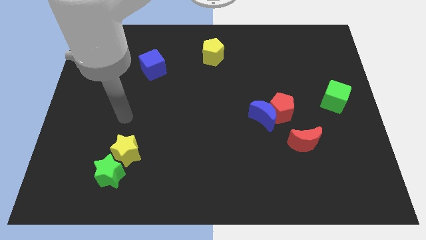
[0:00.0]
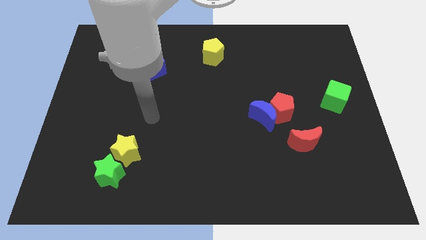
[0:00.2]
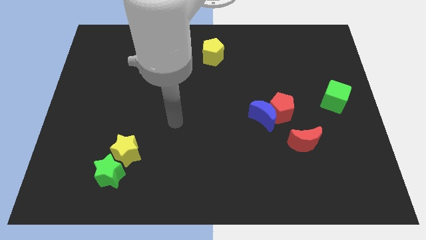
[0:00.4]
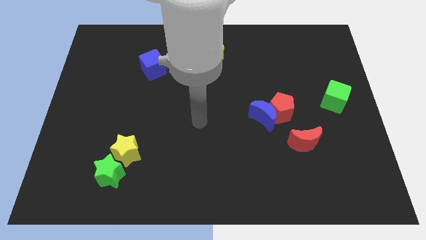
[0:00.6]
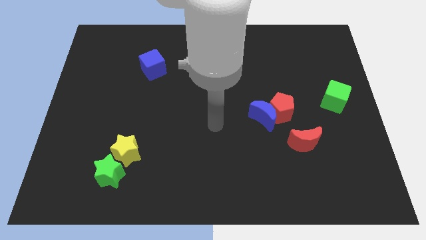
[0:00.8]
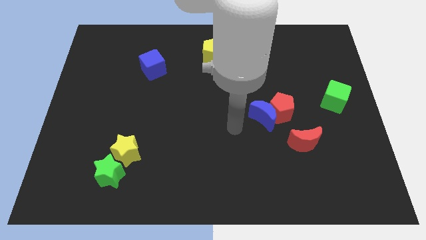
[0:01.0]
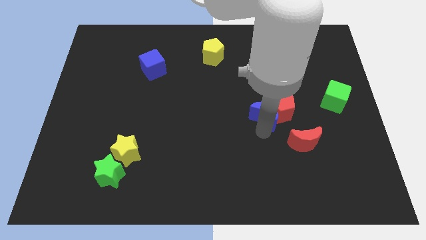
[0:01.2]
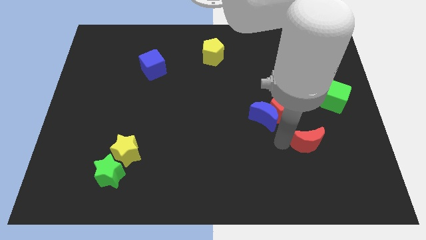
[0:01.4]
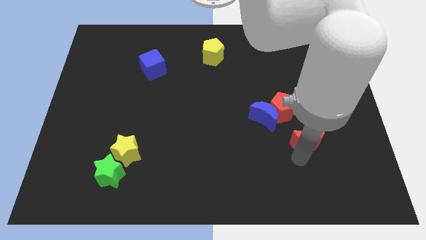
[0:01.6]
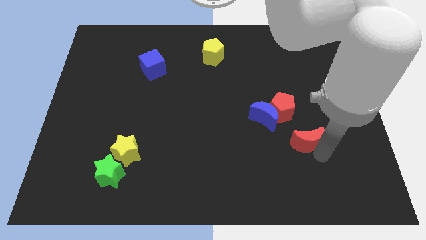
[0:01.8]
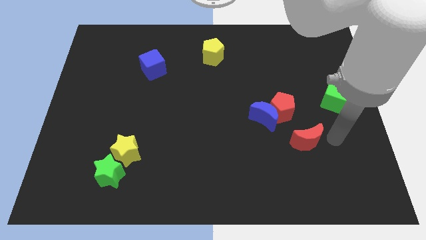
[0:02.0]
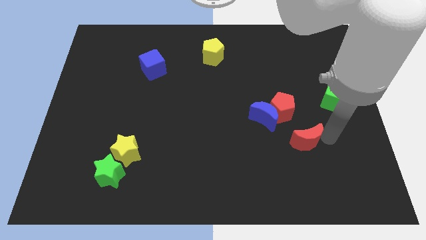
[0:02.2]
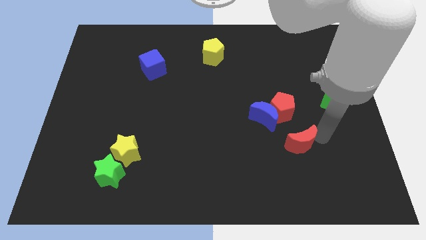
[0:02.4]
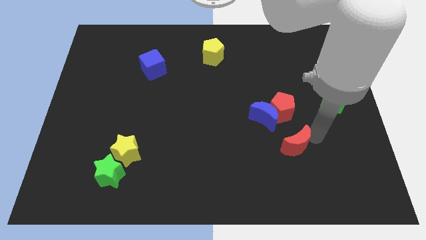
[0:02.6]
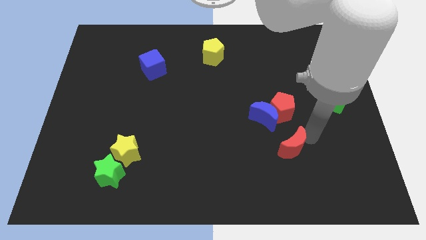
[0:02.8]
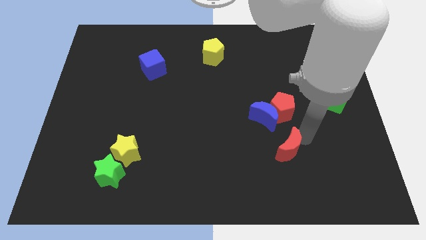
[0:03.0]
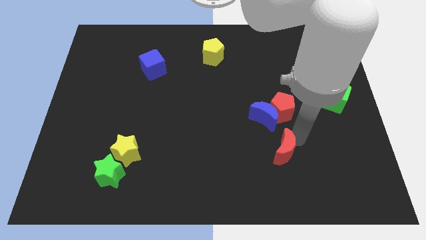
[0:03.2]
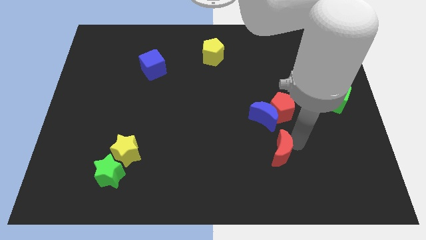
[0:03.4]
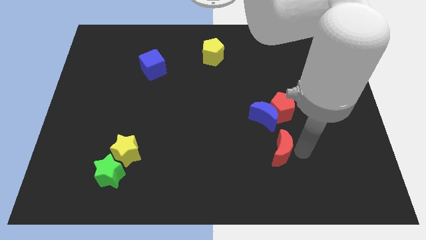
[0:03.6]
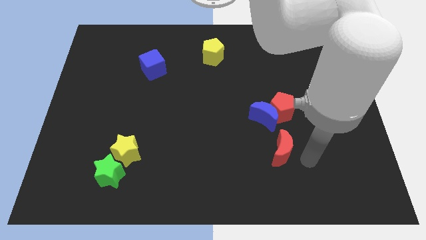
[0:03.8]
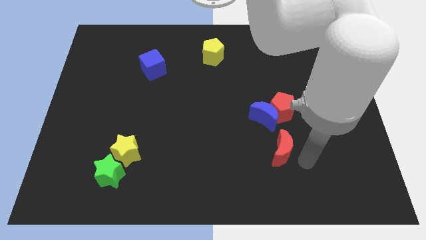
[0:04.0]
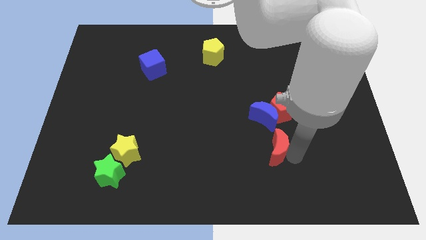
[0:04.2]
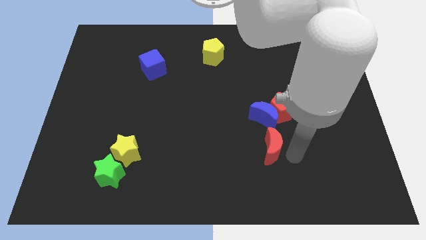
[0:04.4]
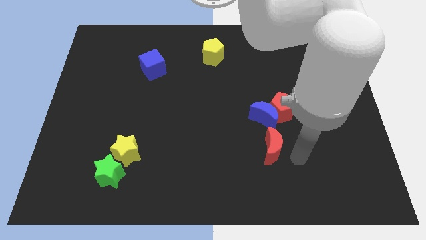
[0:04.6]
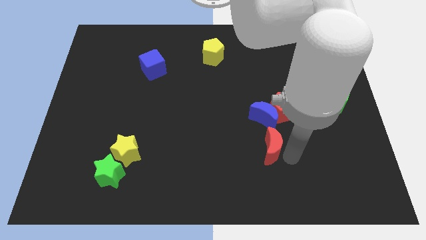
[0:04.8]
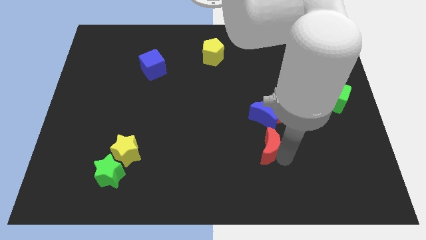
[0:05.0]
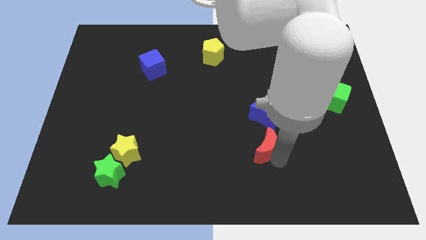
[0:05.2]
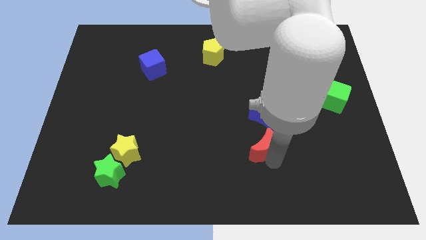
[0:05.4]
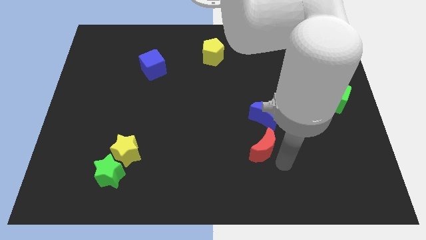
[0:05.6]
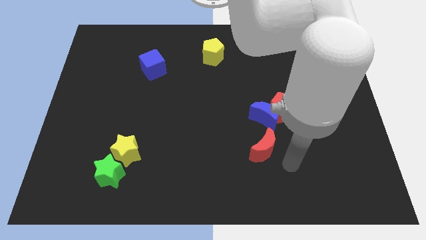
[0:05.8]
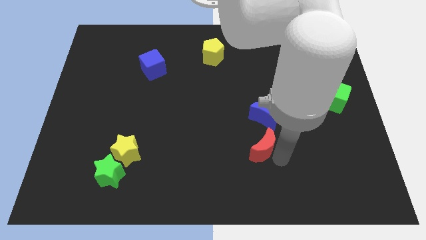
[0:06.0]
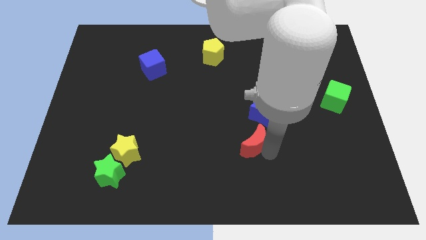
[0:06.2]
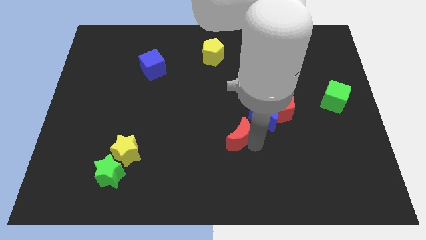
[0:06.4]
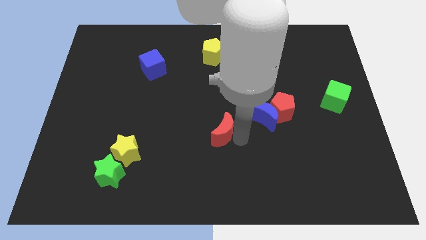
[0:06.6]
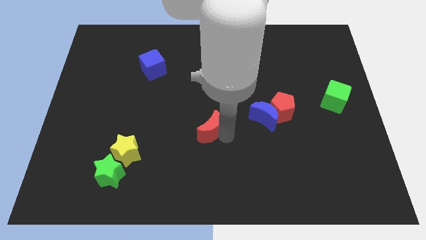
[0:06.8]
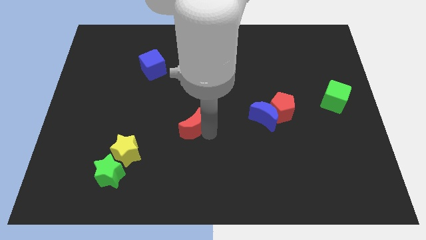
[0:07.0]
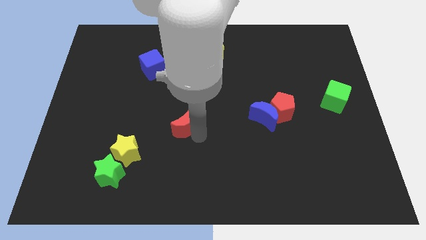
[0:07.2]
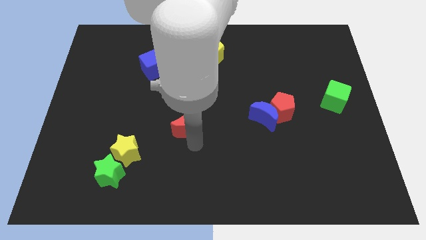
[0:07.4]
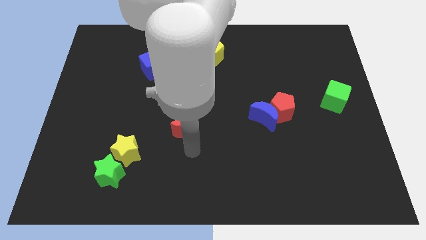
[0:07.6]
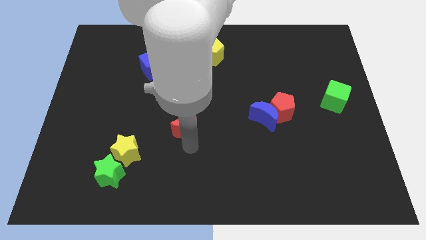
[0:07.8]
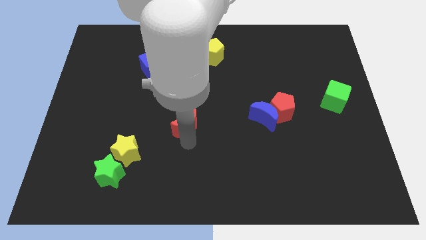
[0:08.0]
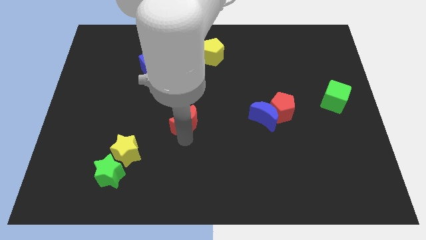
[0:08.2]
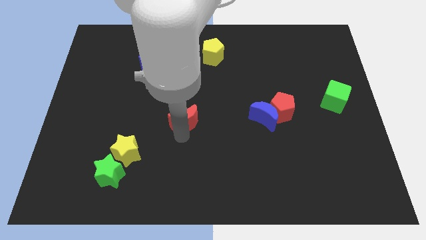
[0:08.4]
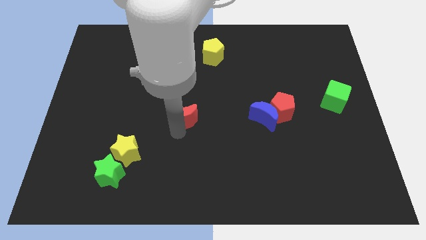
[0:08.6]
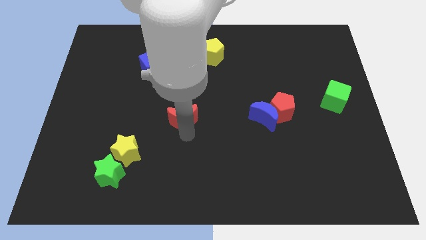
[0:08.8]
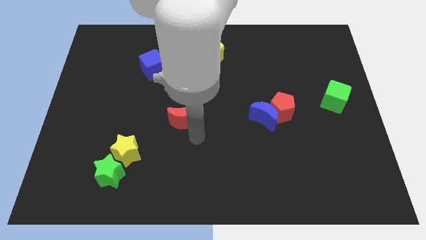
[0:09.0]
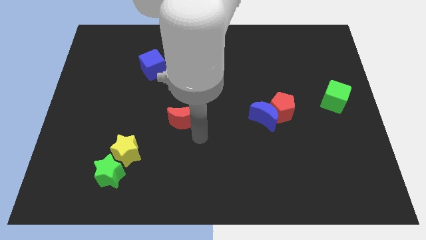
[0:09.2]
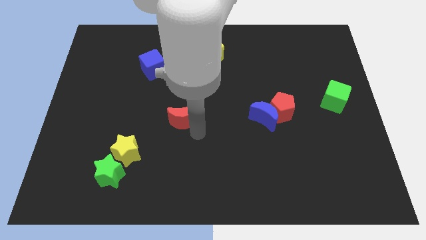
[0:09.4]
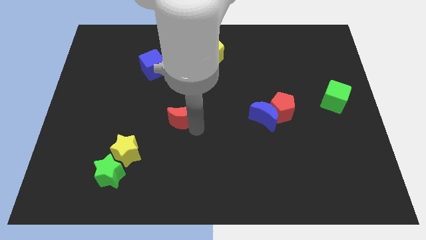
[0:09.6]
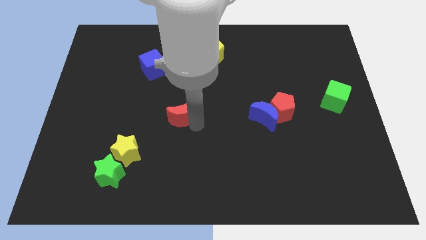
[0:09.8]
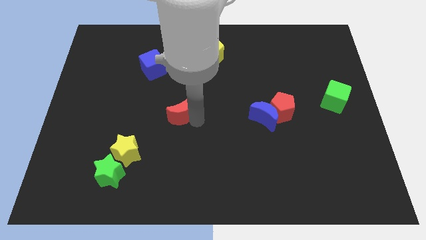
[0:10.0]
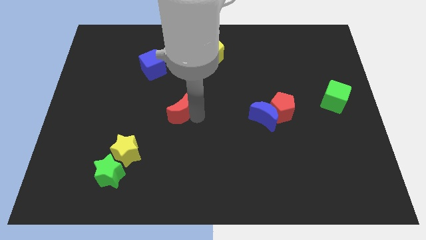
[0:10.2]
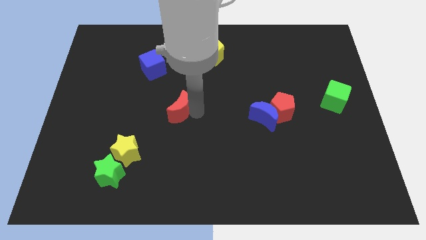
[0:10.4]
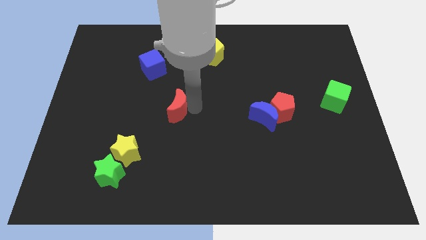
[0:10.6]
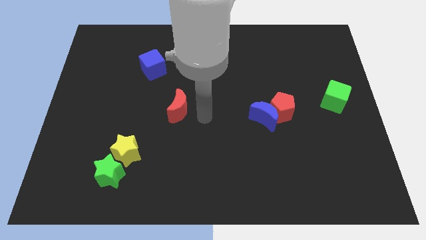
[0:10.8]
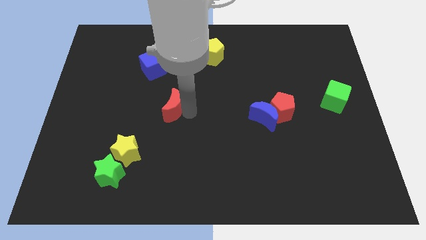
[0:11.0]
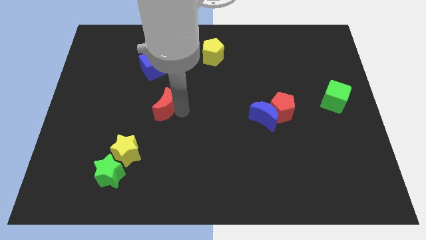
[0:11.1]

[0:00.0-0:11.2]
slide the red moon to the bottom side of the blue cube

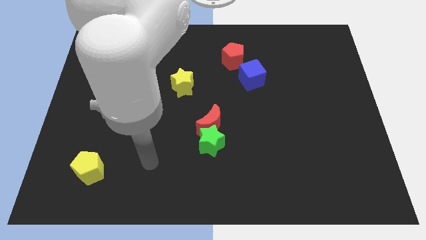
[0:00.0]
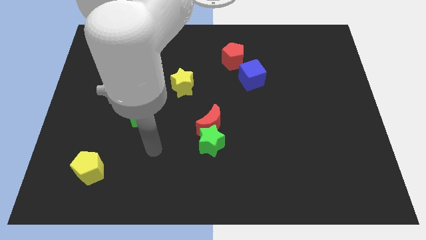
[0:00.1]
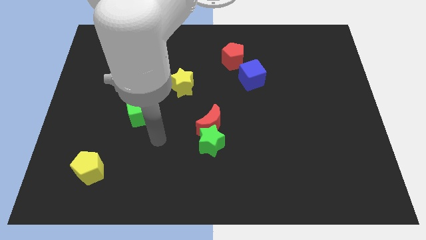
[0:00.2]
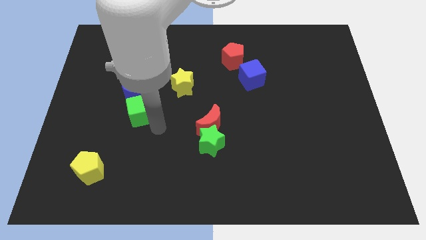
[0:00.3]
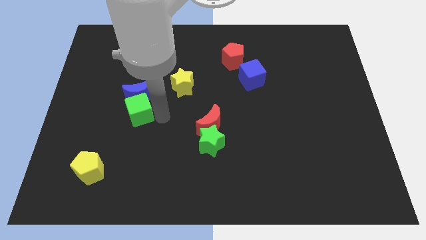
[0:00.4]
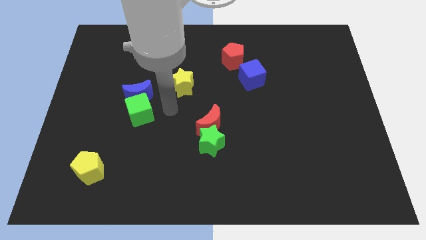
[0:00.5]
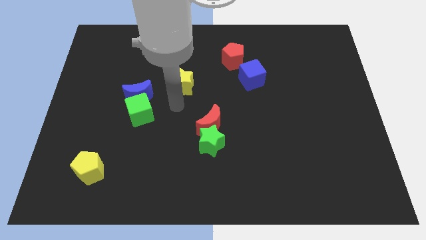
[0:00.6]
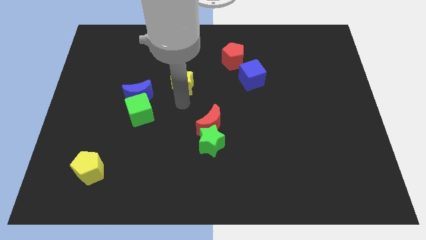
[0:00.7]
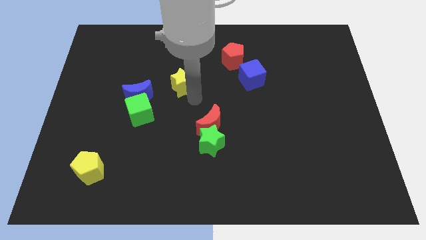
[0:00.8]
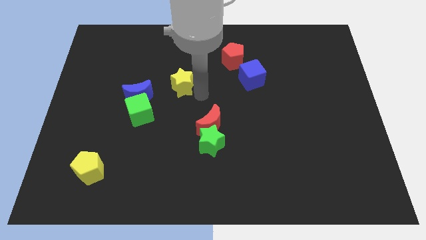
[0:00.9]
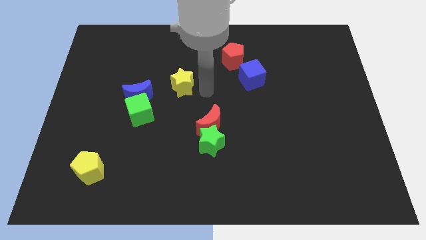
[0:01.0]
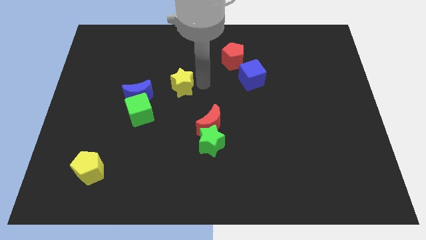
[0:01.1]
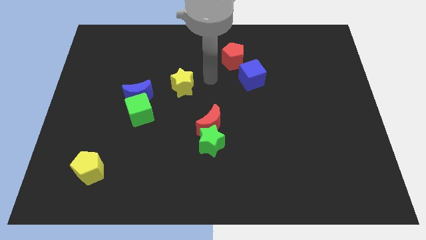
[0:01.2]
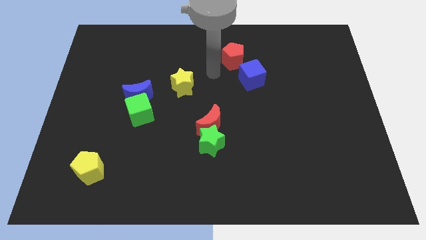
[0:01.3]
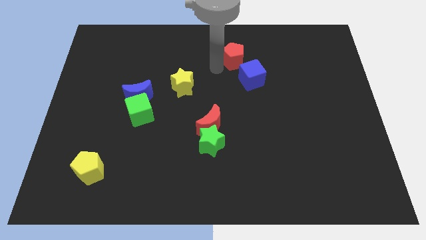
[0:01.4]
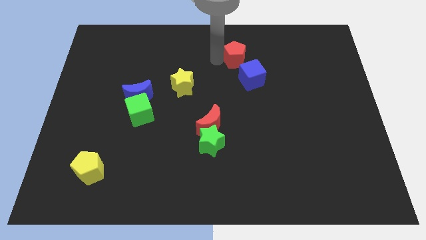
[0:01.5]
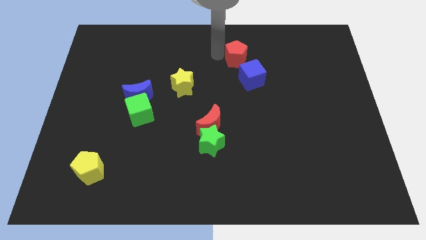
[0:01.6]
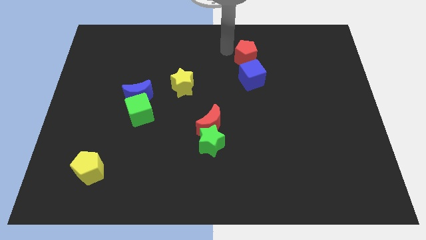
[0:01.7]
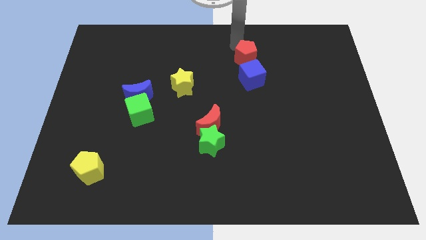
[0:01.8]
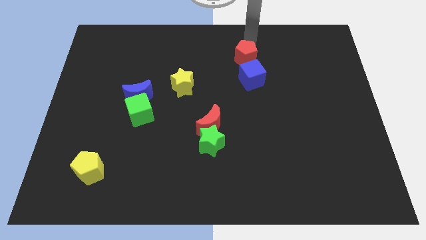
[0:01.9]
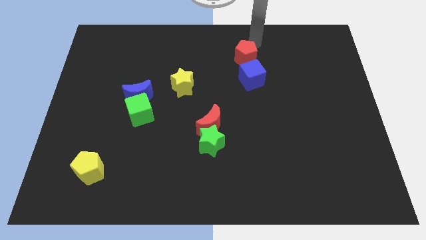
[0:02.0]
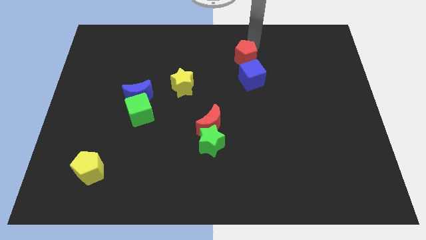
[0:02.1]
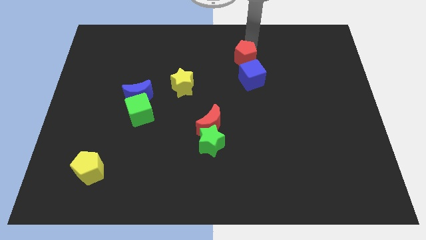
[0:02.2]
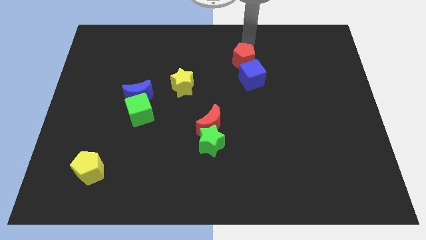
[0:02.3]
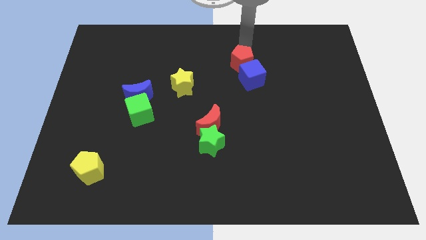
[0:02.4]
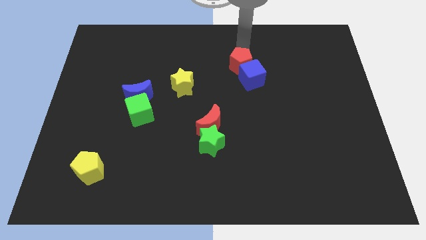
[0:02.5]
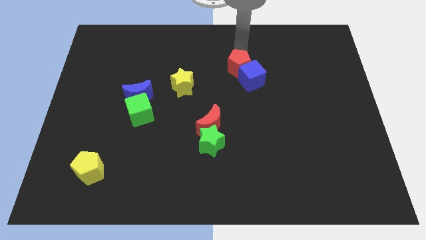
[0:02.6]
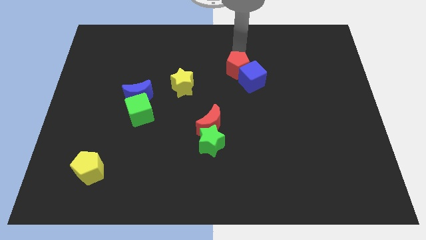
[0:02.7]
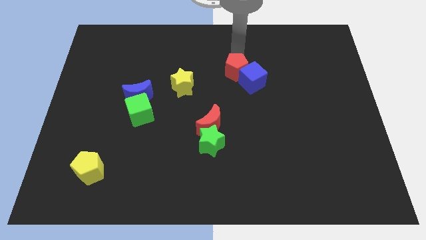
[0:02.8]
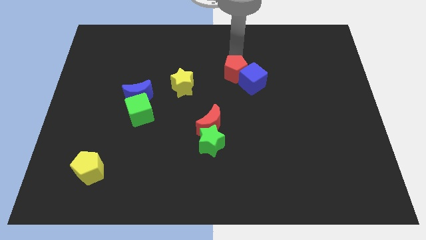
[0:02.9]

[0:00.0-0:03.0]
push the red pentagon right of the yellow star
